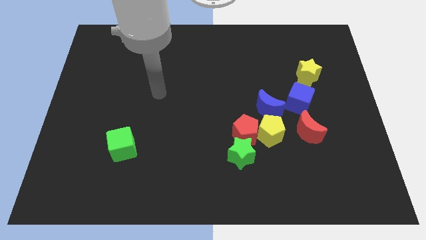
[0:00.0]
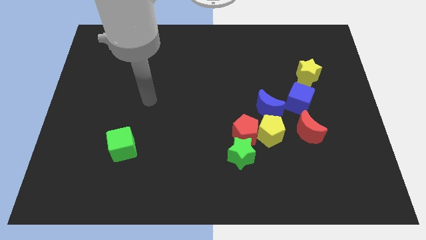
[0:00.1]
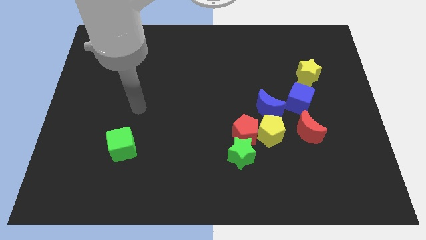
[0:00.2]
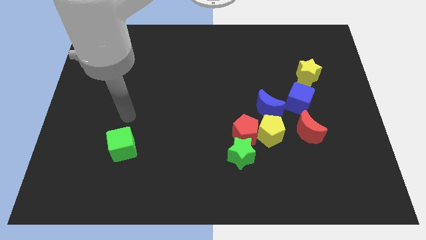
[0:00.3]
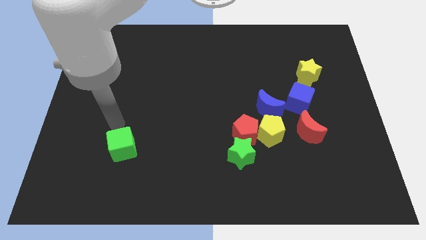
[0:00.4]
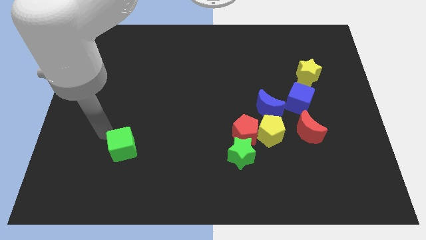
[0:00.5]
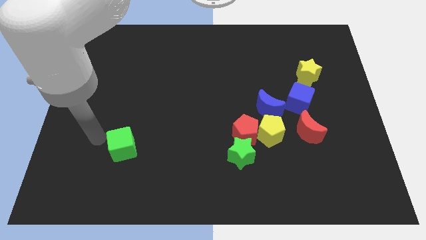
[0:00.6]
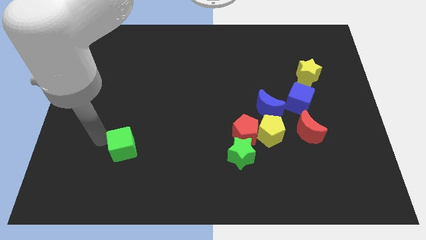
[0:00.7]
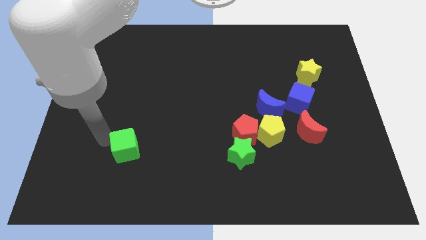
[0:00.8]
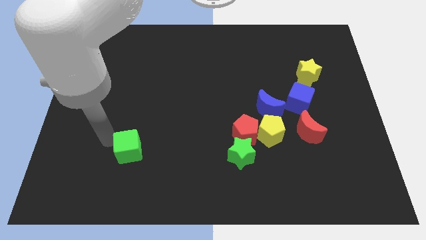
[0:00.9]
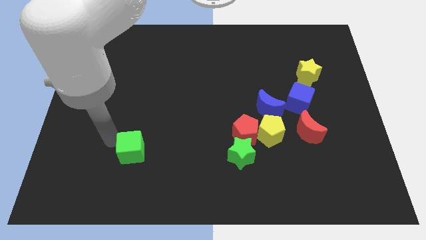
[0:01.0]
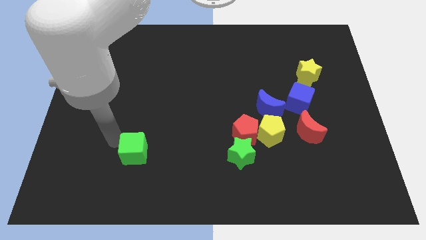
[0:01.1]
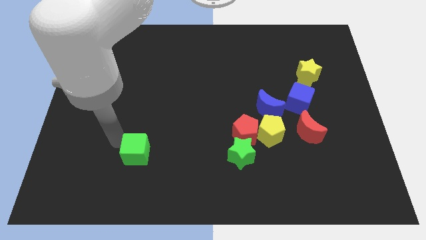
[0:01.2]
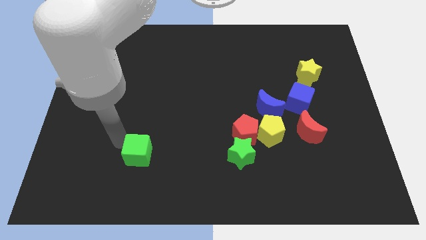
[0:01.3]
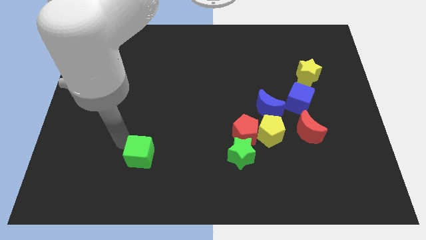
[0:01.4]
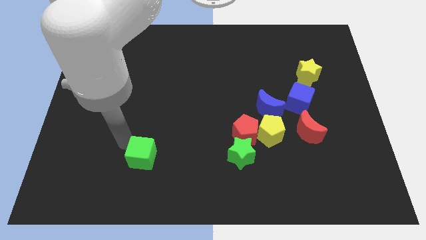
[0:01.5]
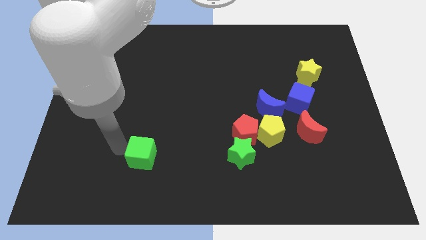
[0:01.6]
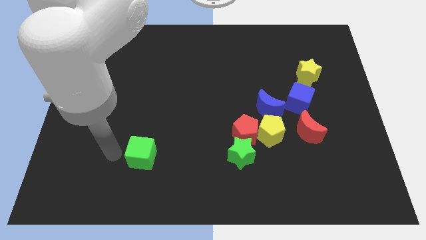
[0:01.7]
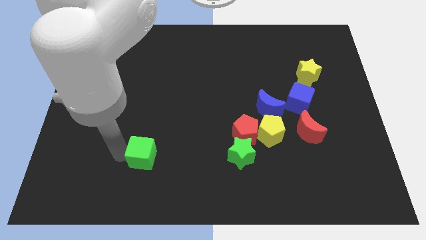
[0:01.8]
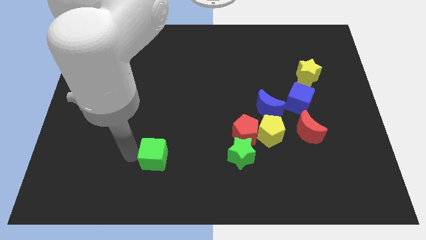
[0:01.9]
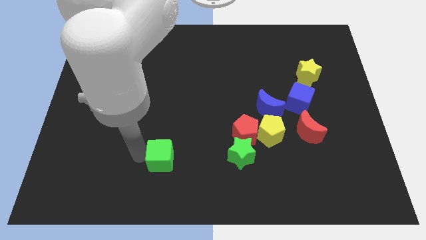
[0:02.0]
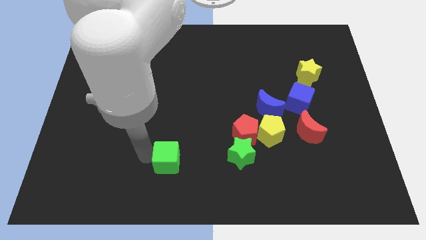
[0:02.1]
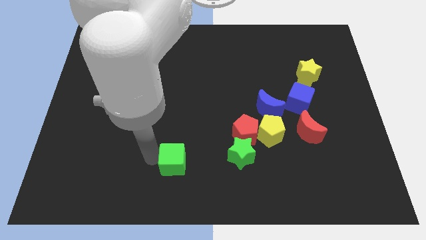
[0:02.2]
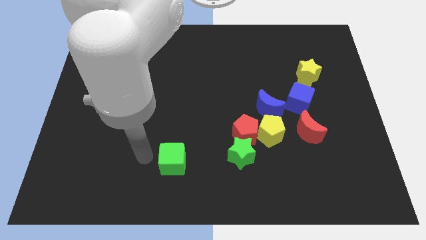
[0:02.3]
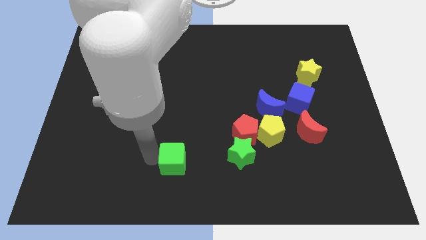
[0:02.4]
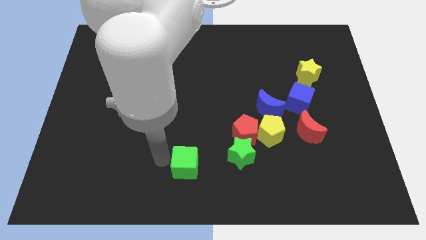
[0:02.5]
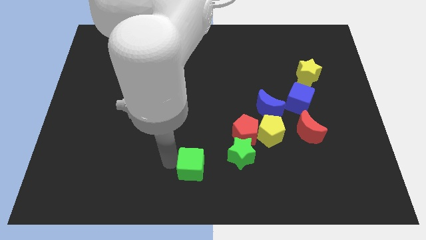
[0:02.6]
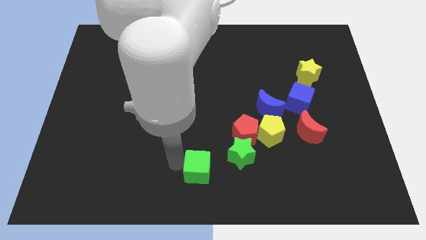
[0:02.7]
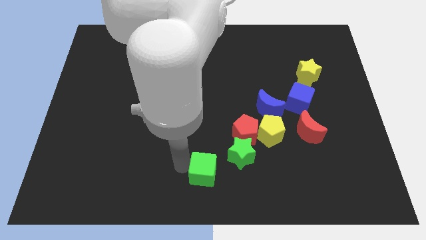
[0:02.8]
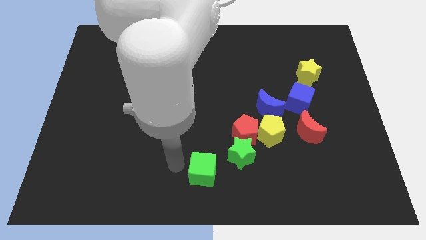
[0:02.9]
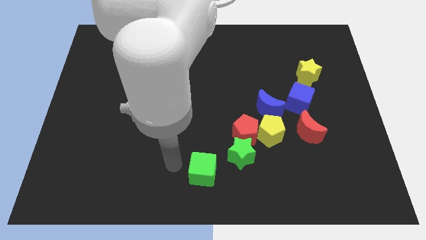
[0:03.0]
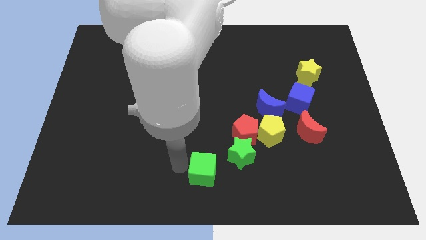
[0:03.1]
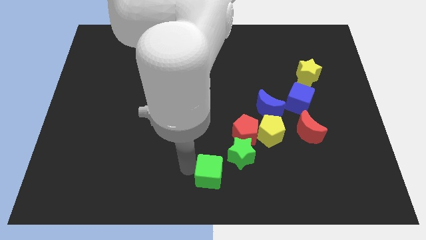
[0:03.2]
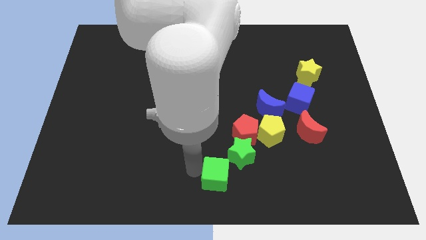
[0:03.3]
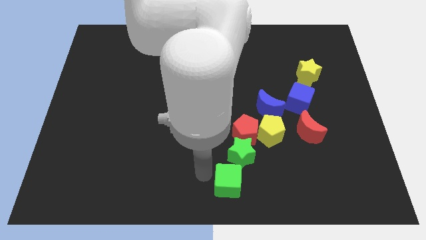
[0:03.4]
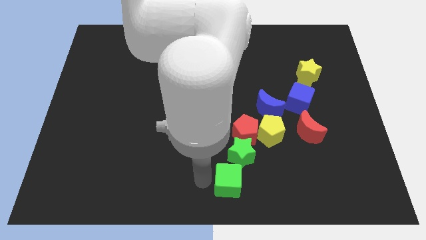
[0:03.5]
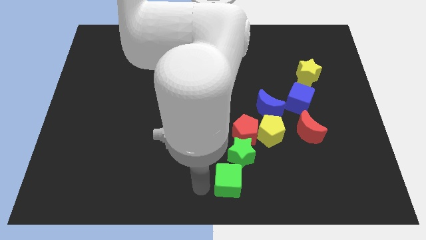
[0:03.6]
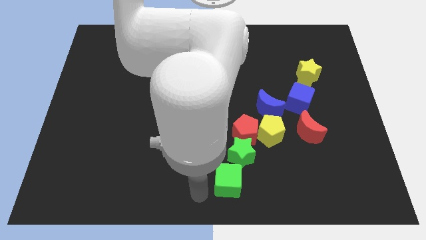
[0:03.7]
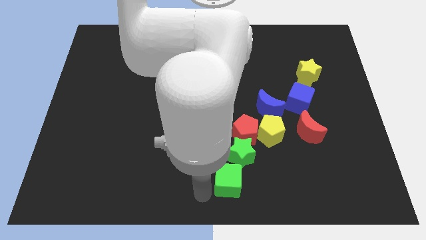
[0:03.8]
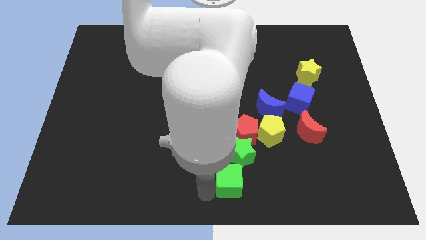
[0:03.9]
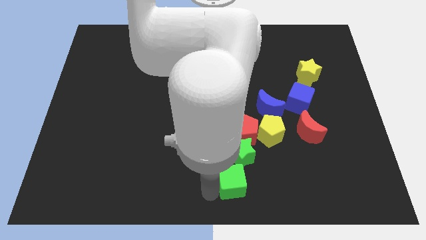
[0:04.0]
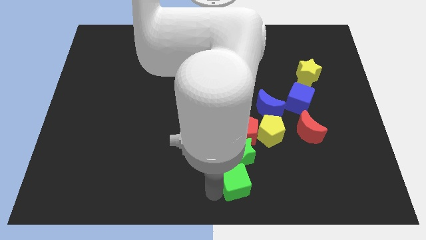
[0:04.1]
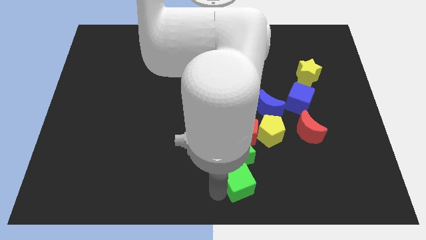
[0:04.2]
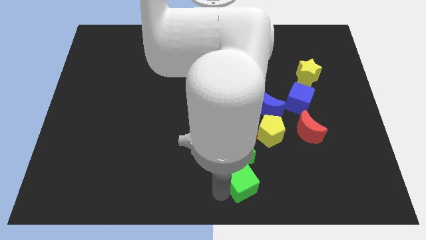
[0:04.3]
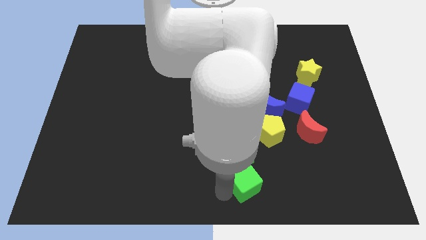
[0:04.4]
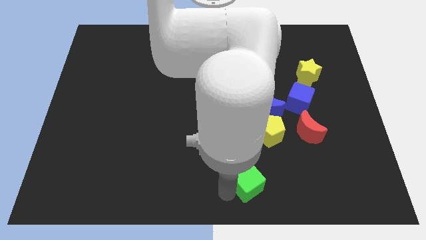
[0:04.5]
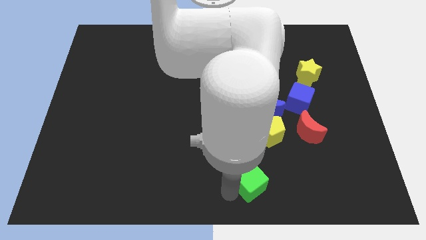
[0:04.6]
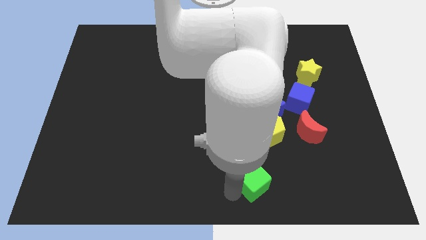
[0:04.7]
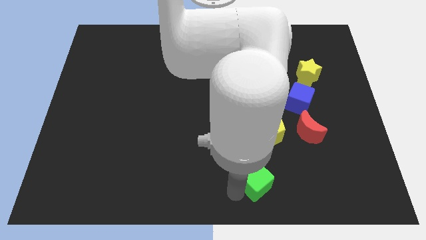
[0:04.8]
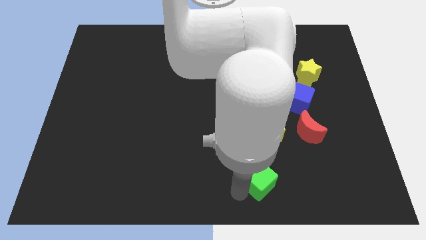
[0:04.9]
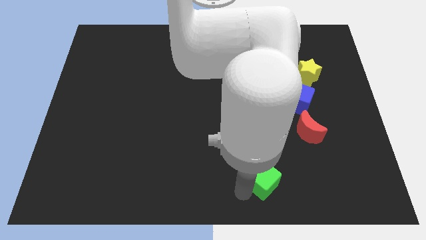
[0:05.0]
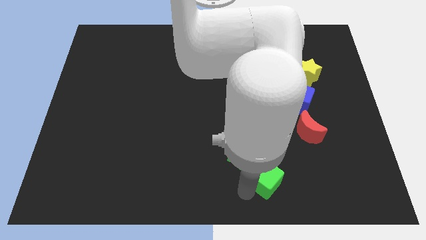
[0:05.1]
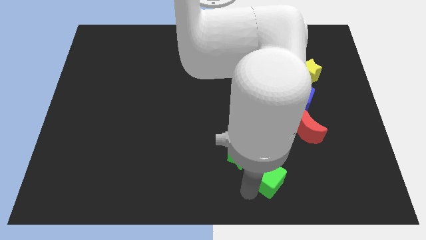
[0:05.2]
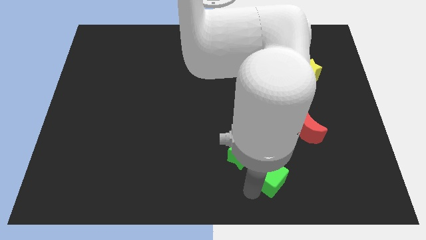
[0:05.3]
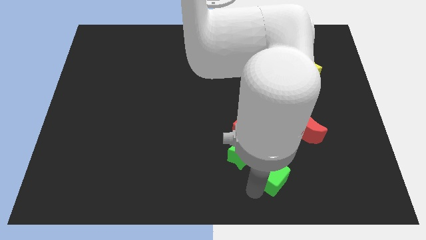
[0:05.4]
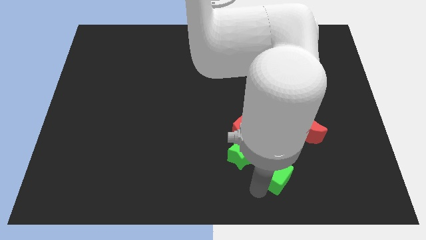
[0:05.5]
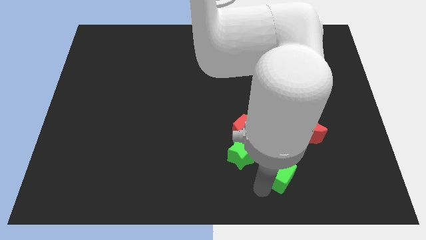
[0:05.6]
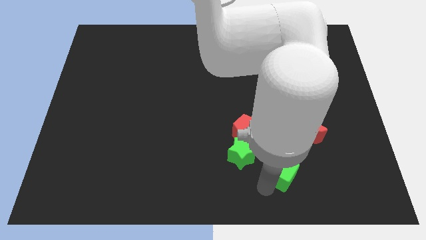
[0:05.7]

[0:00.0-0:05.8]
slide the green cube diagonally down and to the left of the red moon

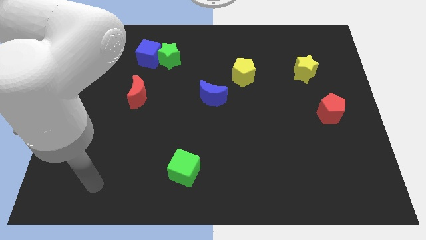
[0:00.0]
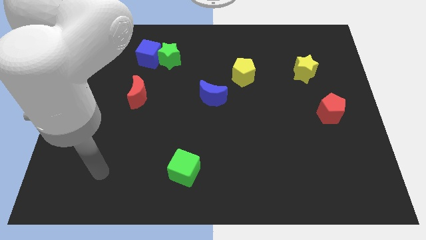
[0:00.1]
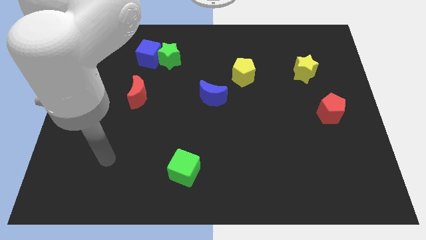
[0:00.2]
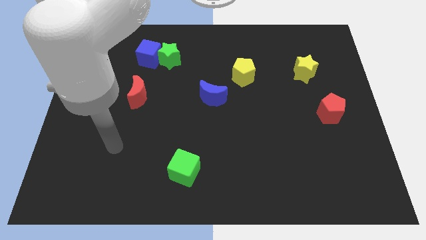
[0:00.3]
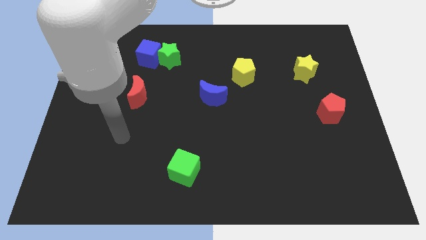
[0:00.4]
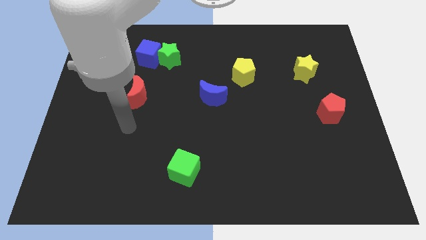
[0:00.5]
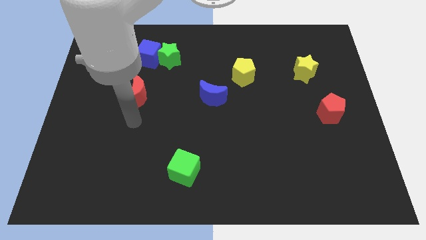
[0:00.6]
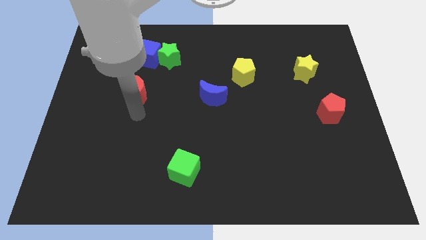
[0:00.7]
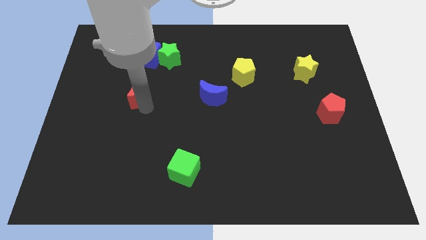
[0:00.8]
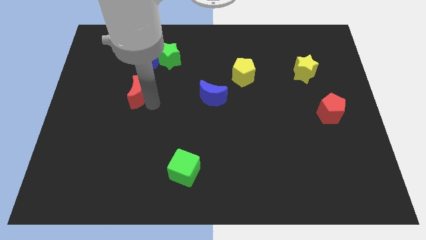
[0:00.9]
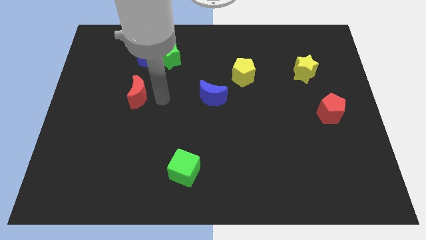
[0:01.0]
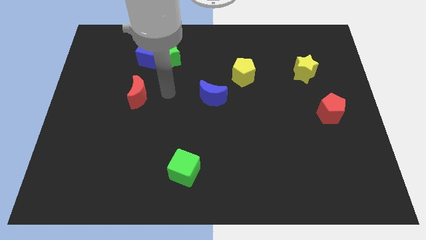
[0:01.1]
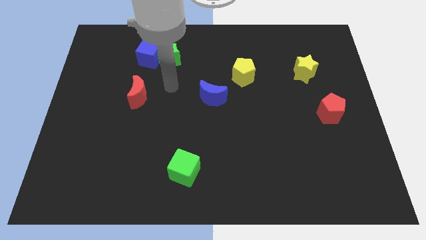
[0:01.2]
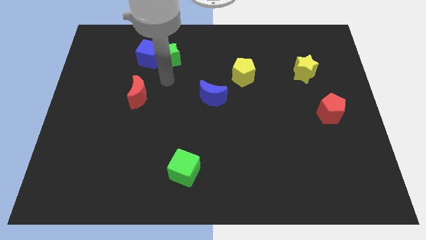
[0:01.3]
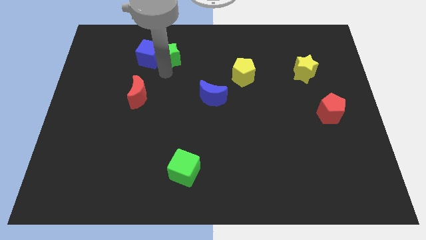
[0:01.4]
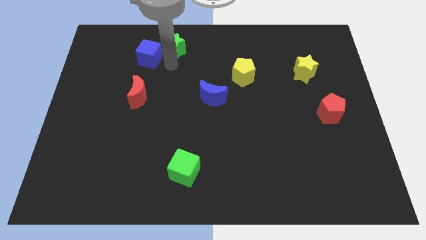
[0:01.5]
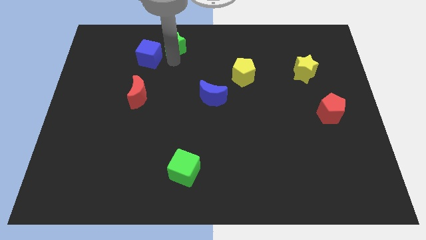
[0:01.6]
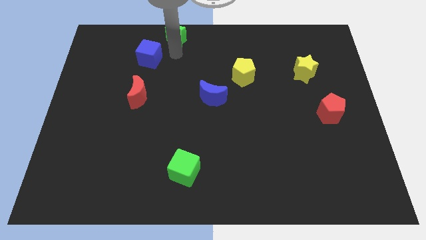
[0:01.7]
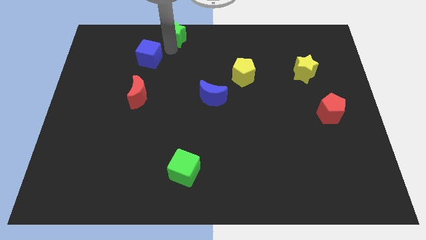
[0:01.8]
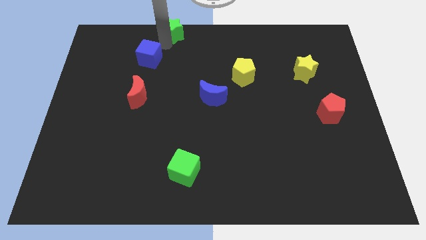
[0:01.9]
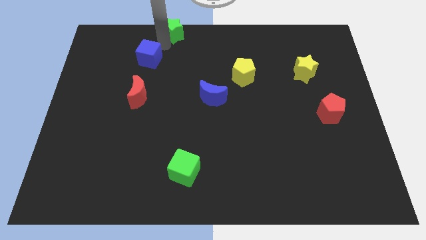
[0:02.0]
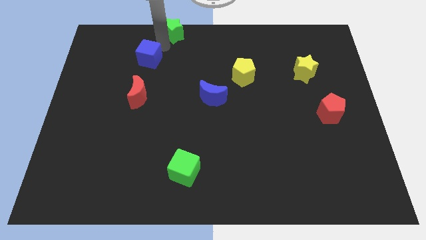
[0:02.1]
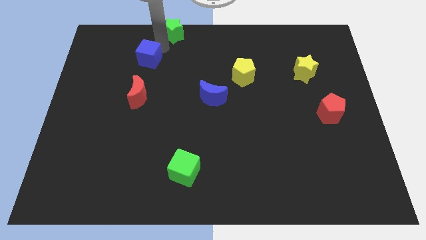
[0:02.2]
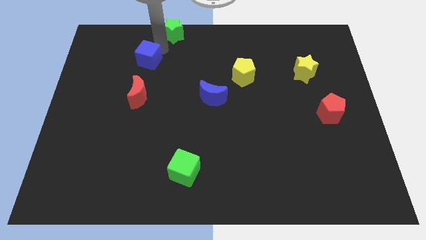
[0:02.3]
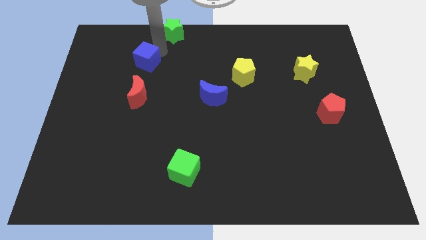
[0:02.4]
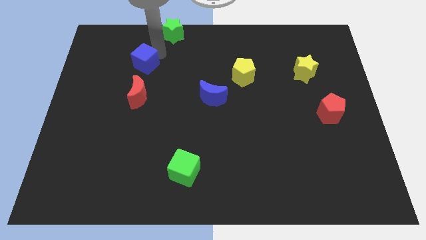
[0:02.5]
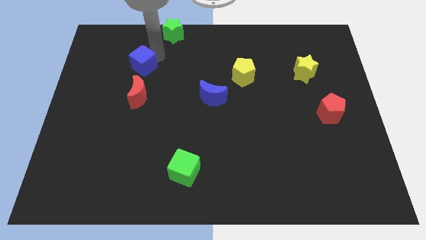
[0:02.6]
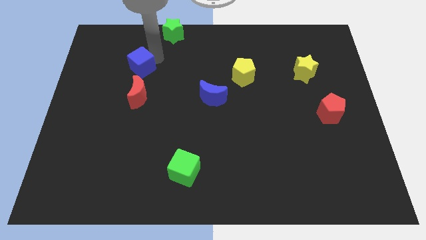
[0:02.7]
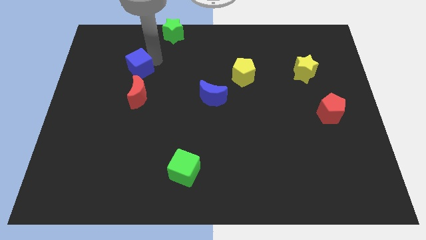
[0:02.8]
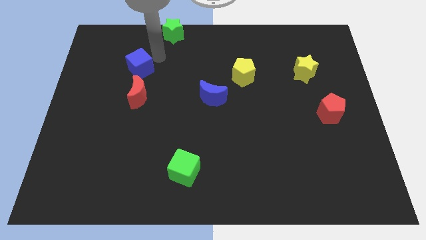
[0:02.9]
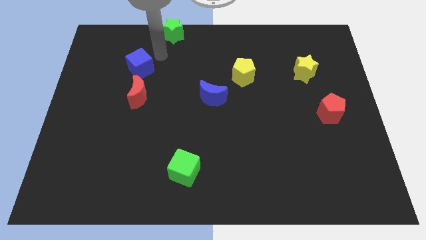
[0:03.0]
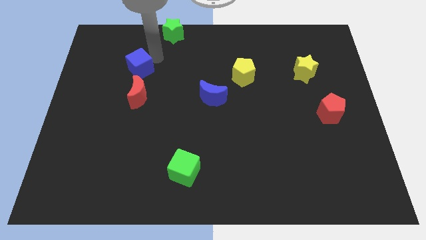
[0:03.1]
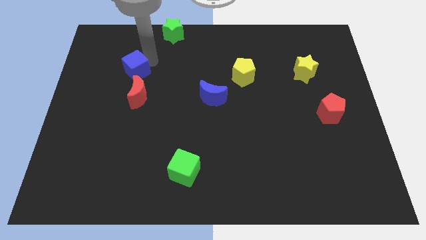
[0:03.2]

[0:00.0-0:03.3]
push the blue cube to the top left of the red moon
